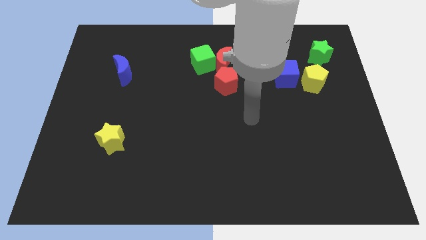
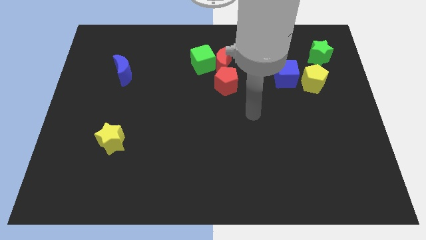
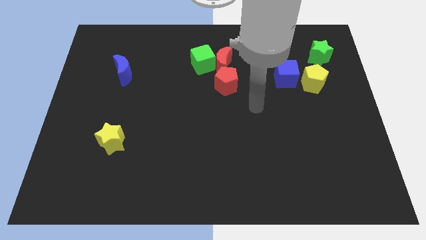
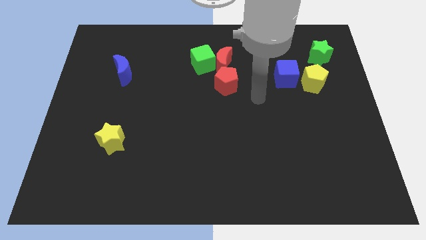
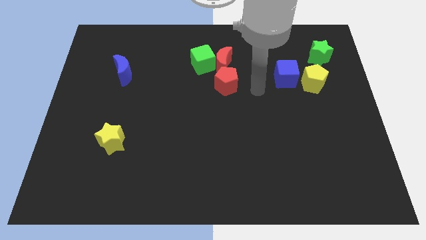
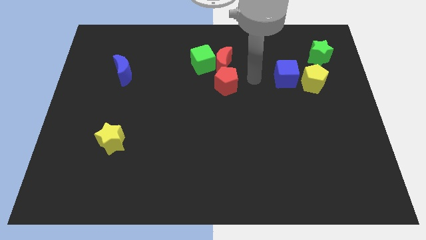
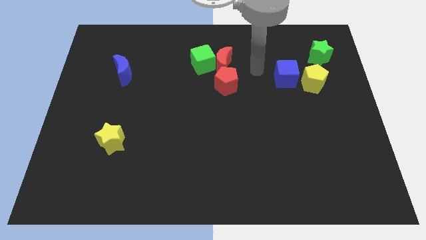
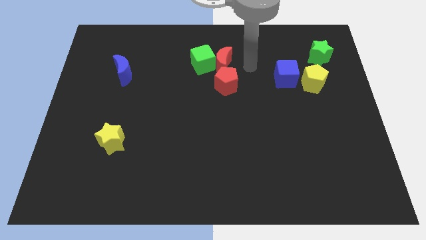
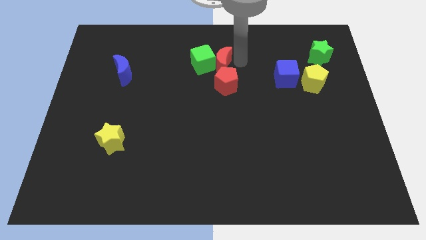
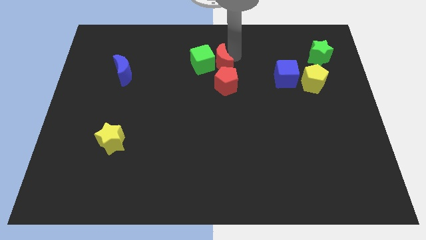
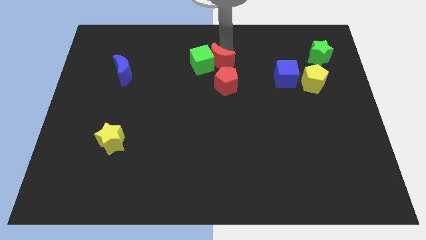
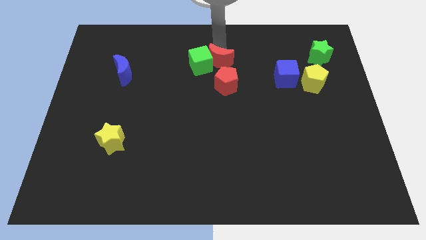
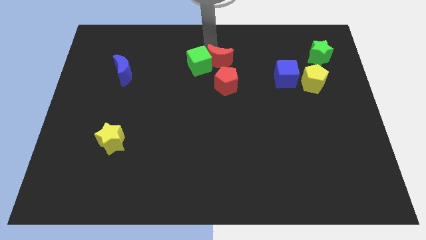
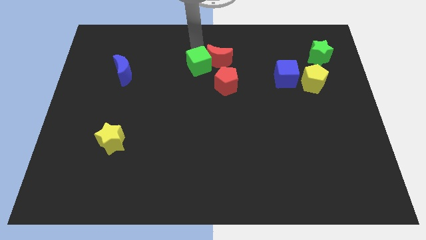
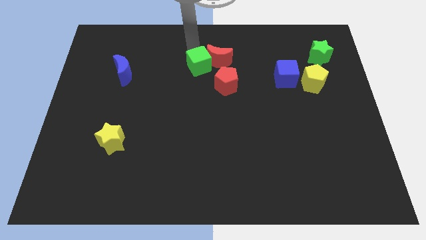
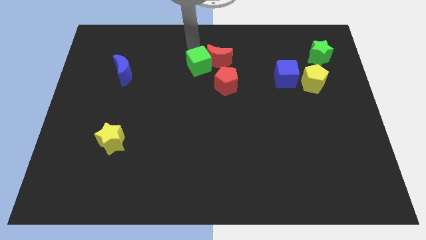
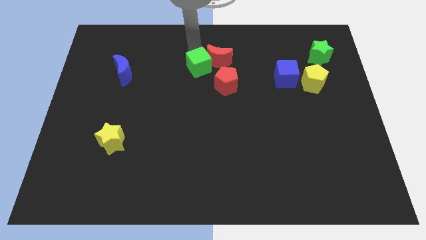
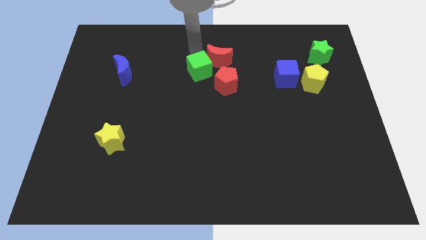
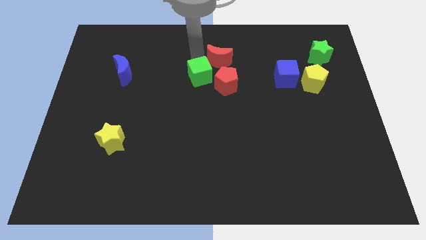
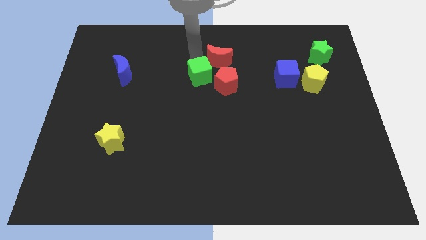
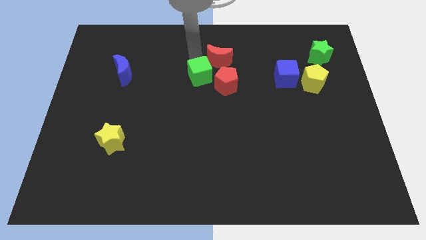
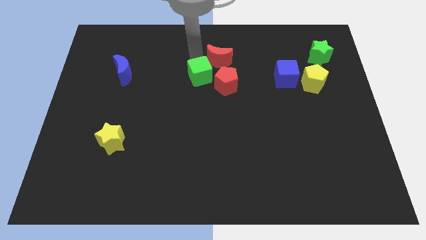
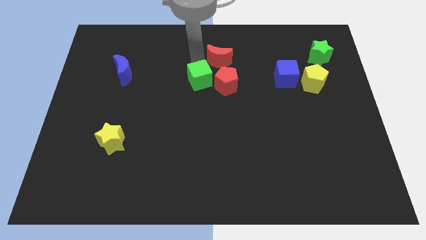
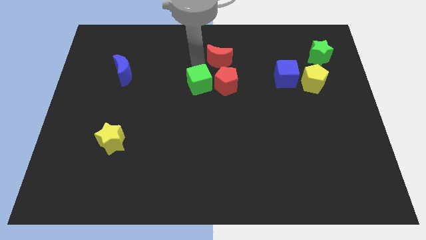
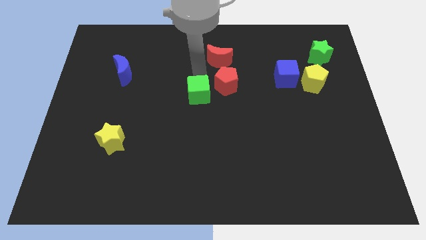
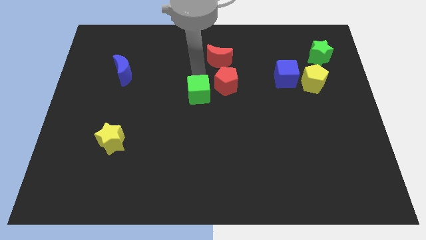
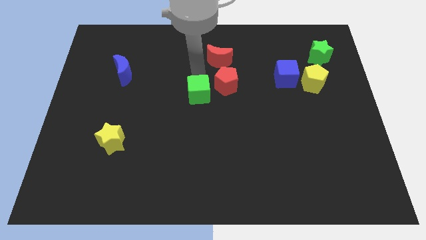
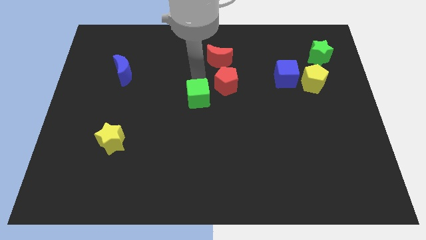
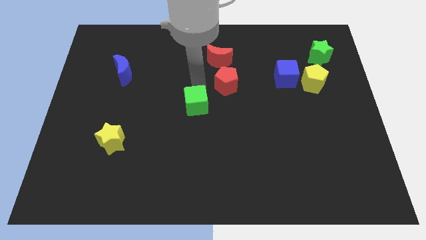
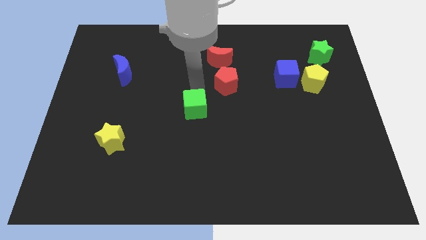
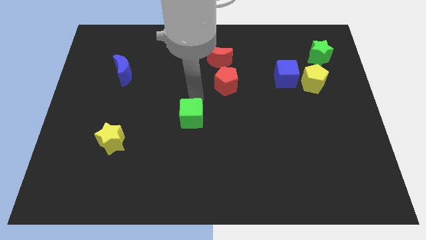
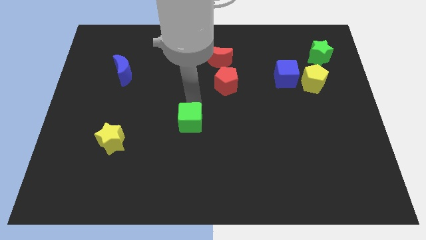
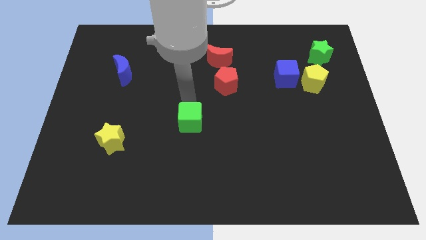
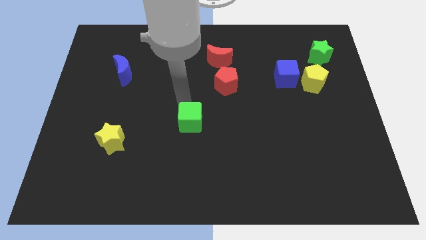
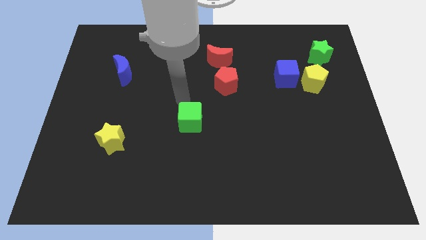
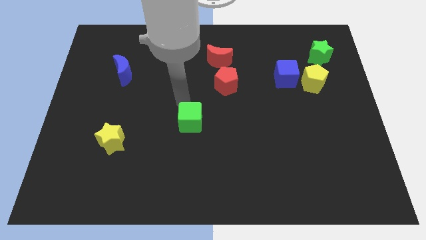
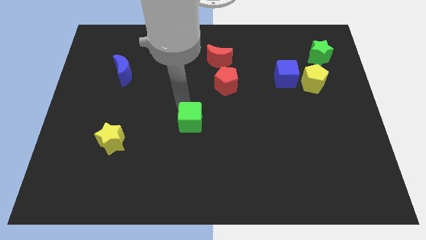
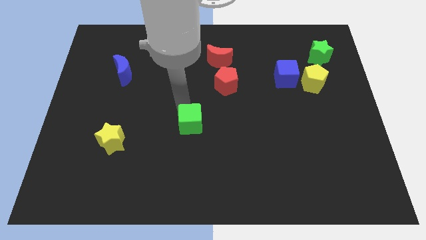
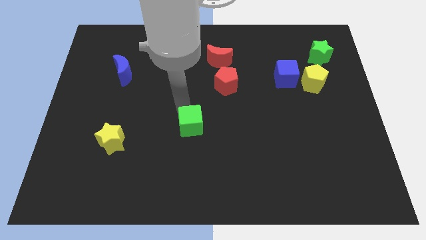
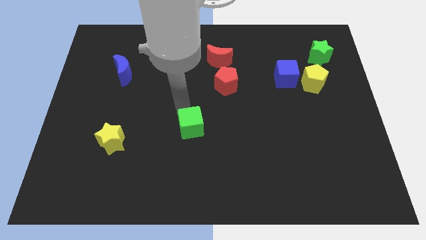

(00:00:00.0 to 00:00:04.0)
slide the green cube down

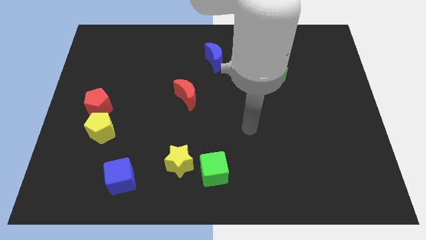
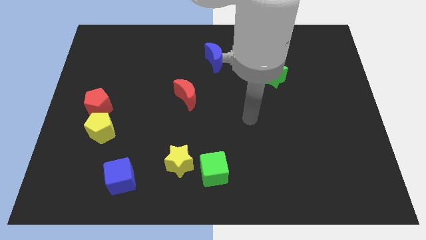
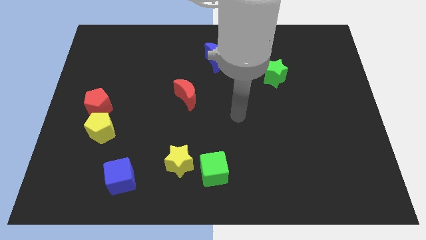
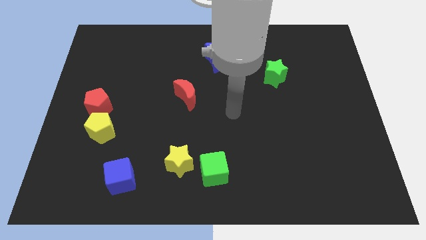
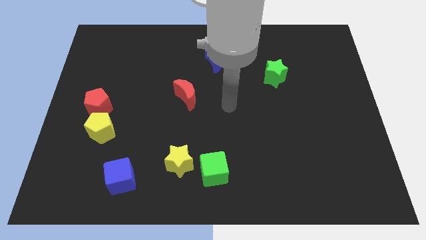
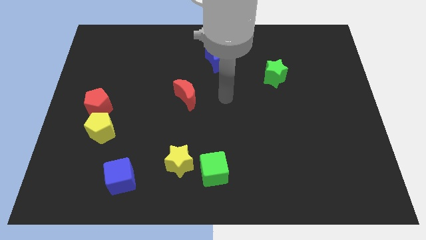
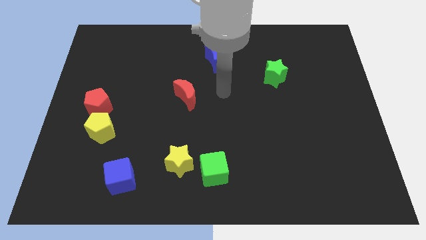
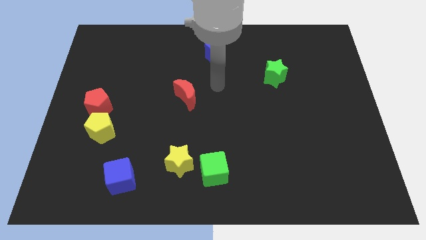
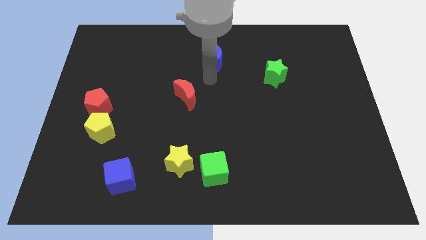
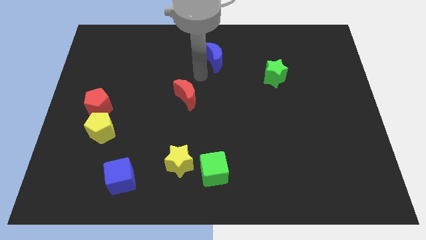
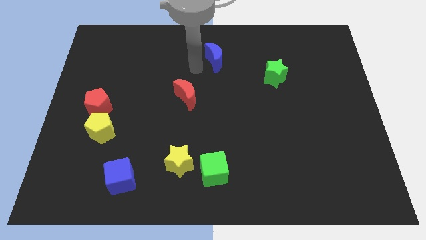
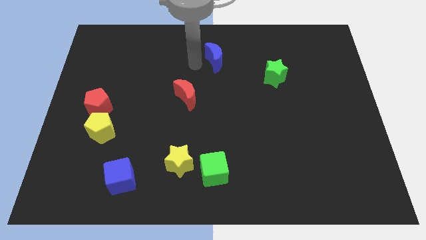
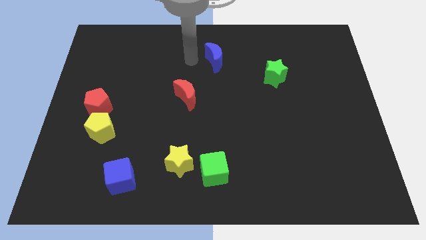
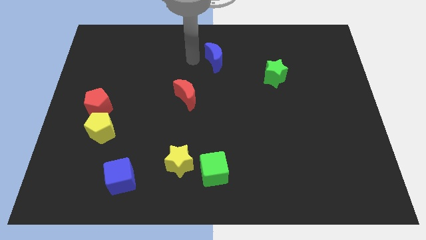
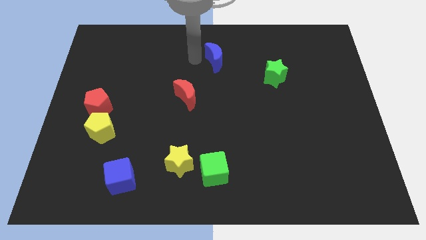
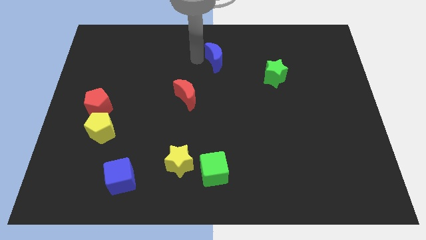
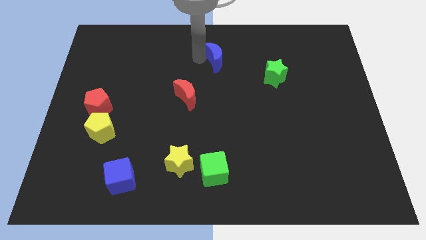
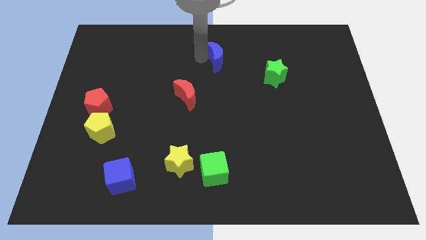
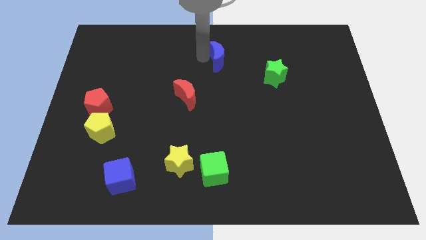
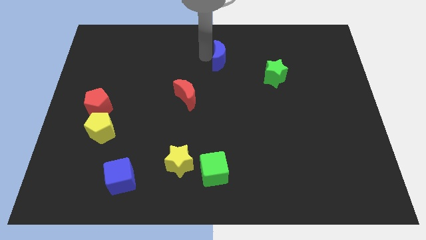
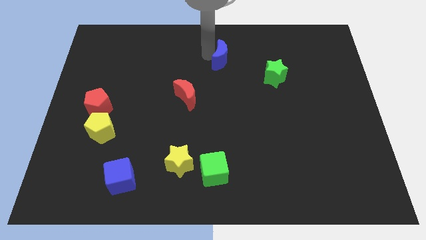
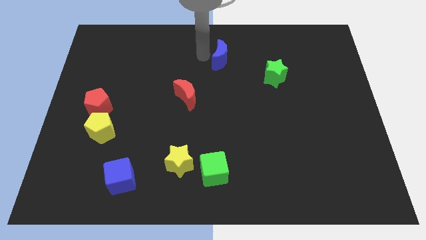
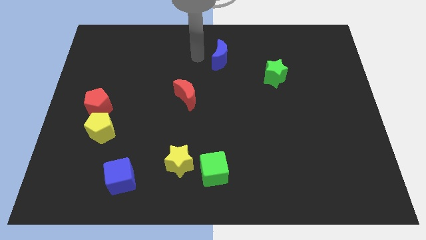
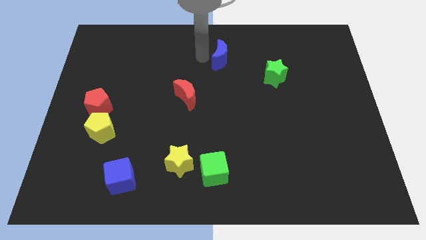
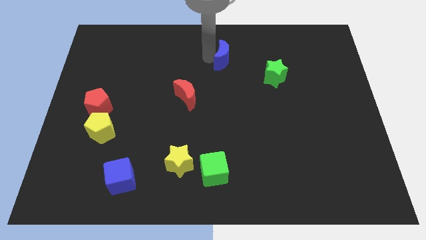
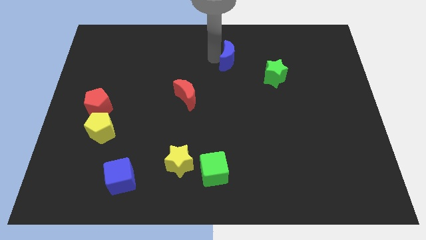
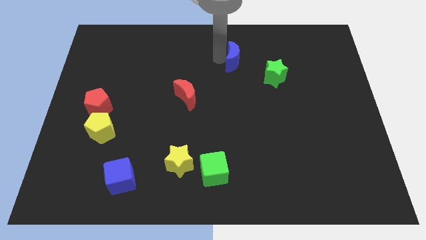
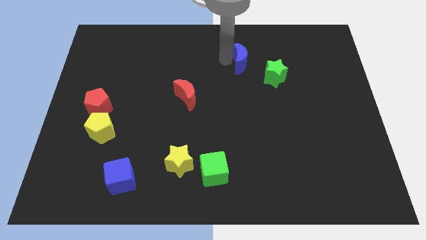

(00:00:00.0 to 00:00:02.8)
slide the blue moon somewhat right

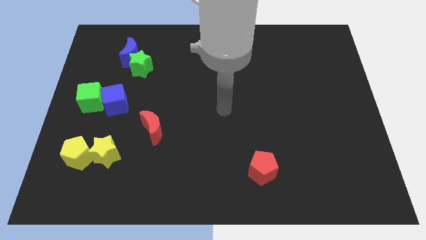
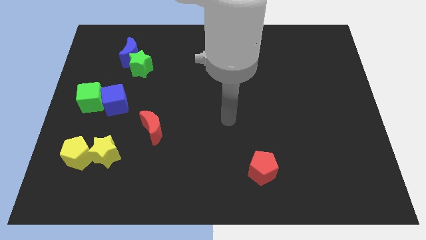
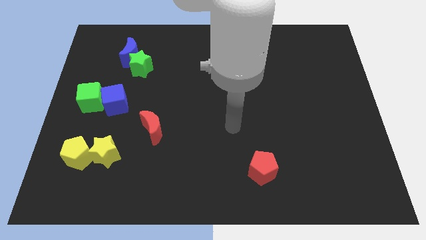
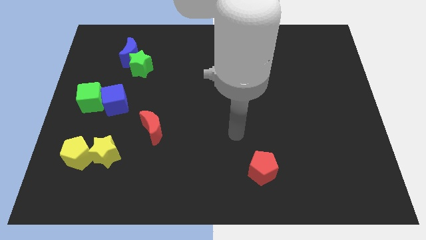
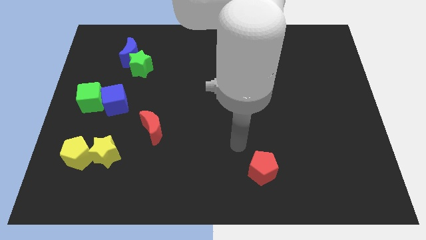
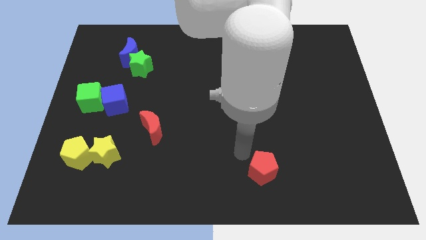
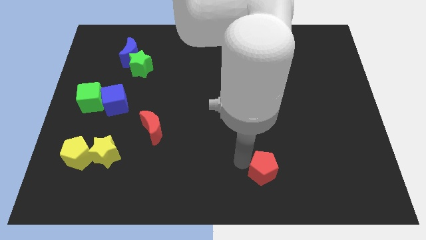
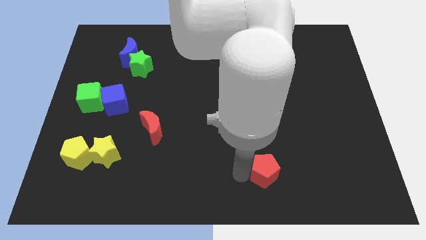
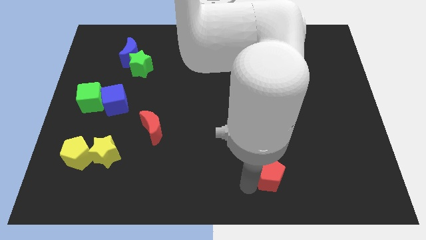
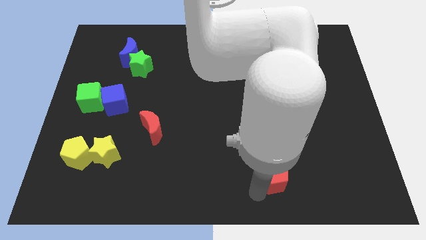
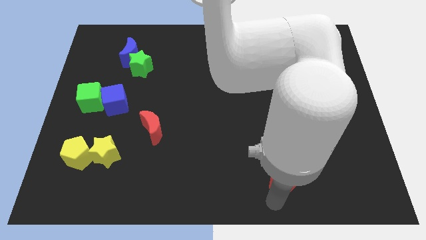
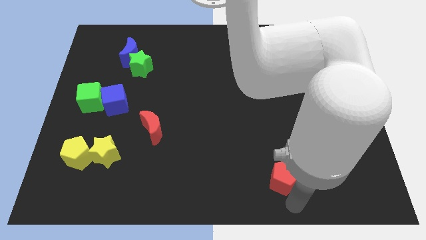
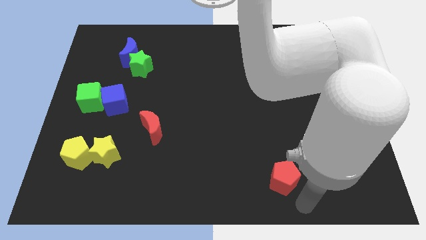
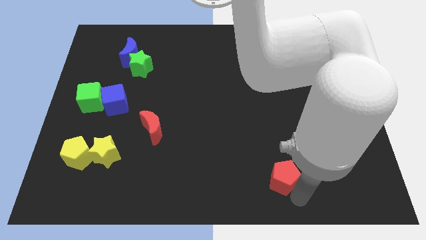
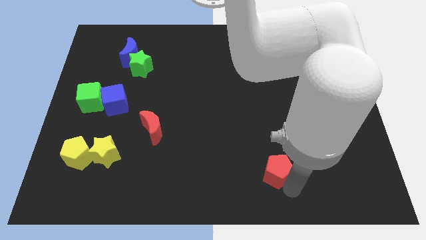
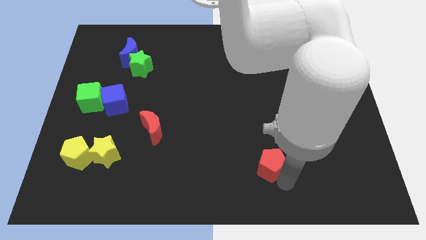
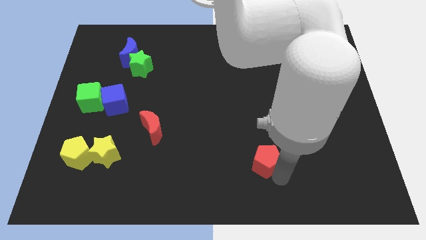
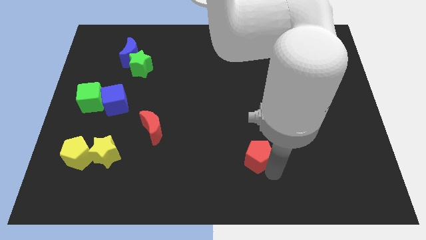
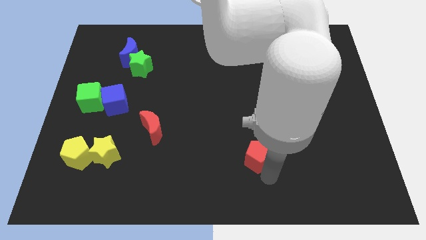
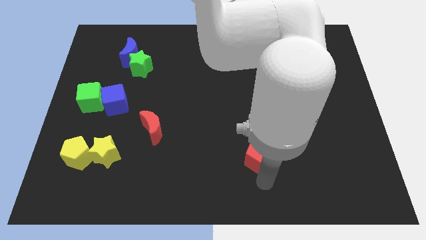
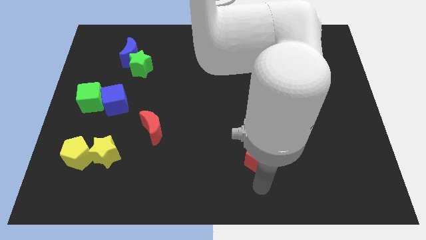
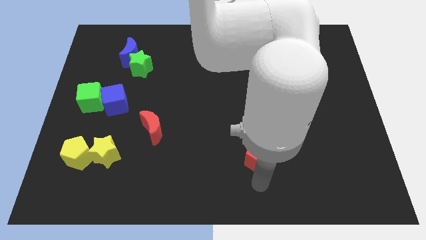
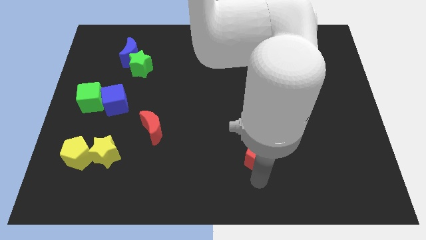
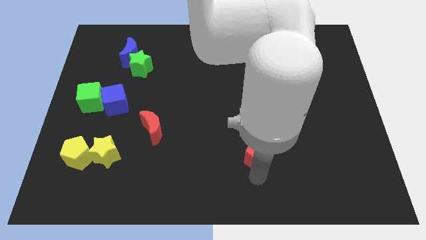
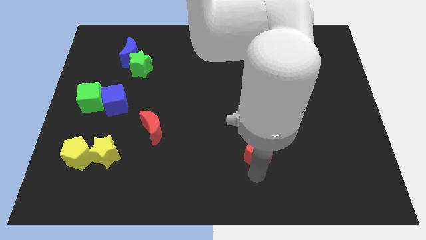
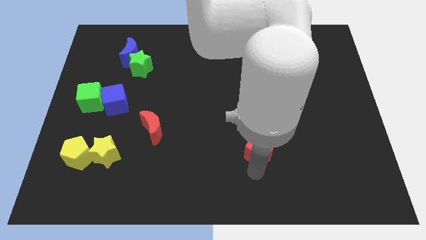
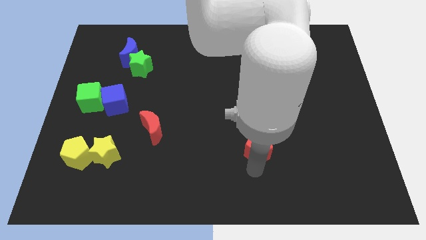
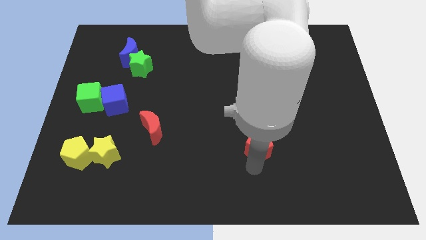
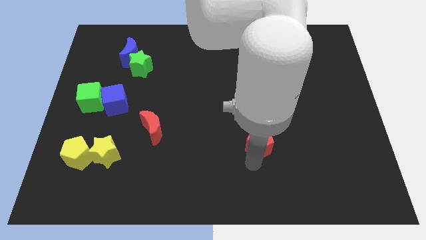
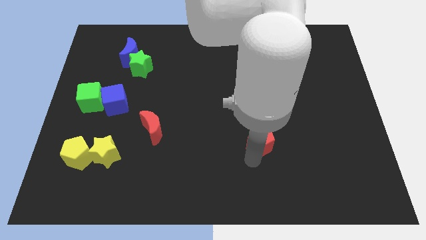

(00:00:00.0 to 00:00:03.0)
move the red pentagon up a little bit
